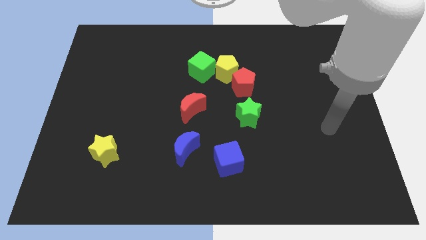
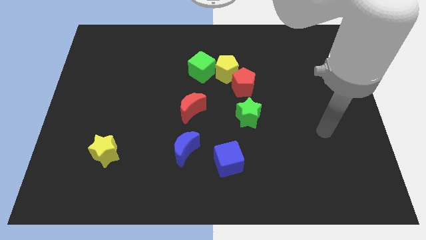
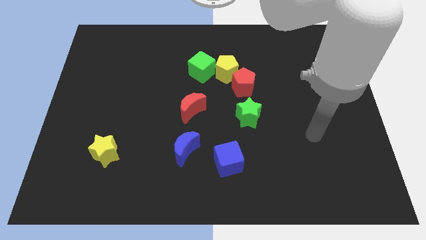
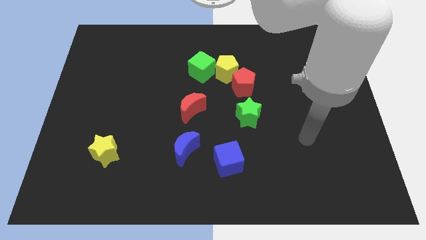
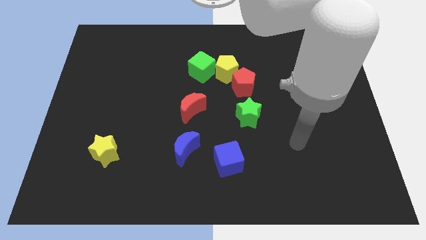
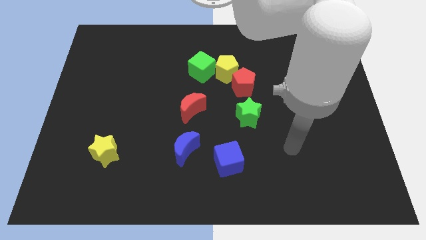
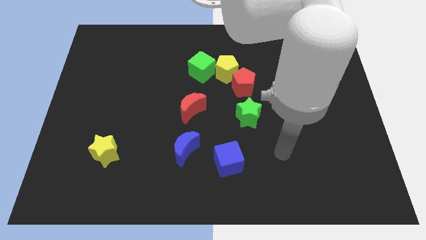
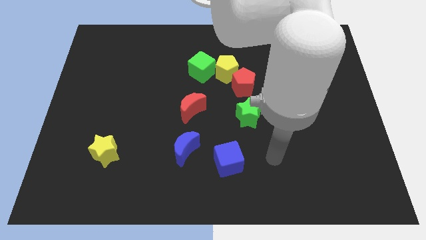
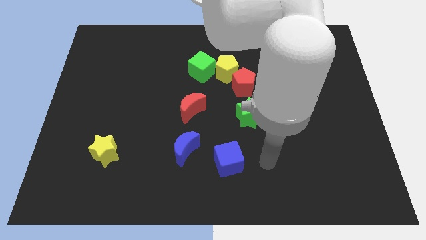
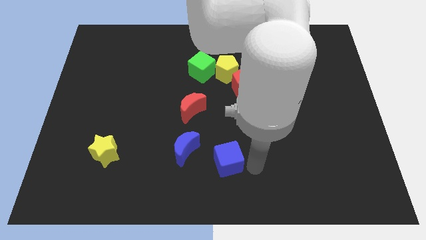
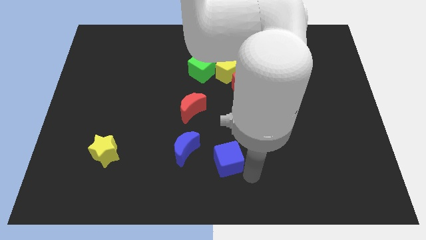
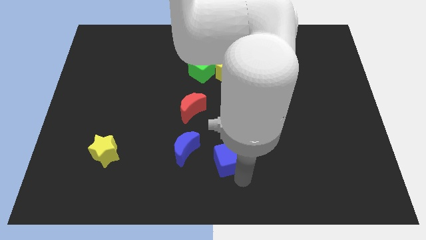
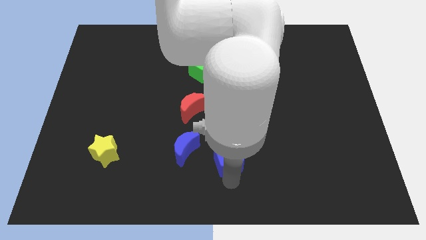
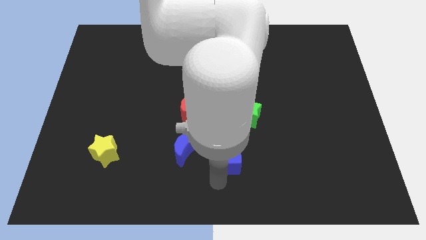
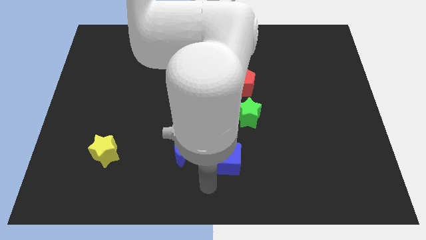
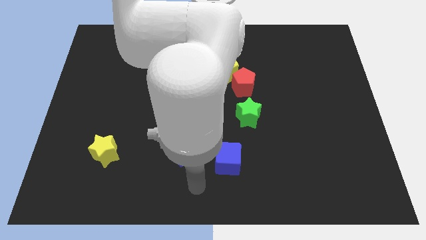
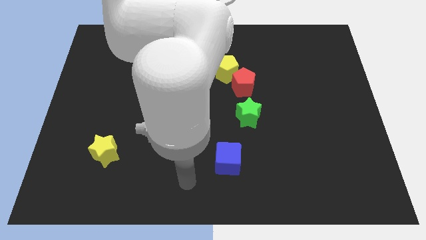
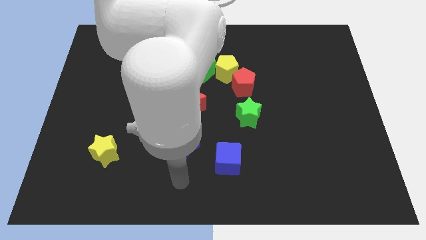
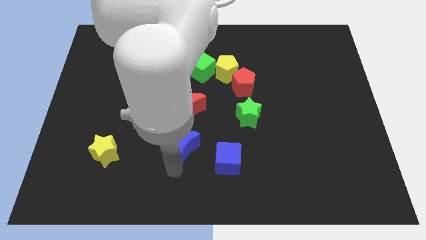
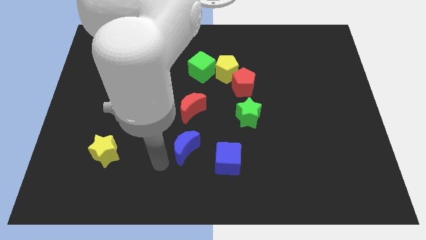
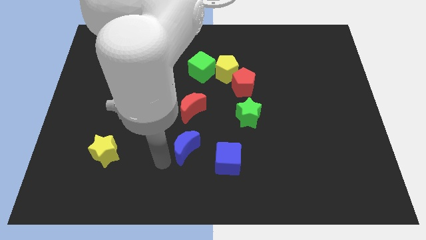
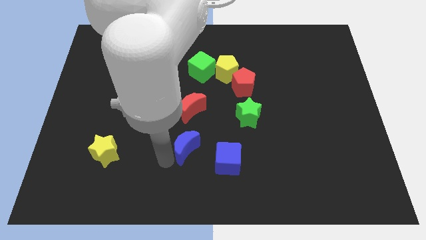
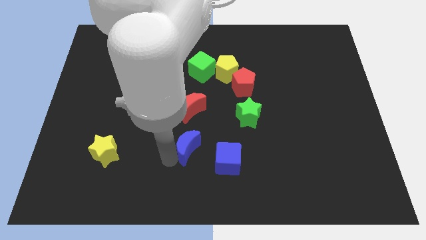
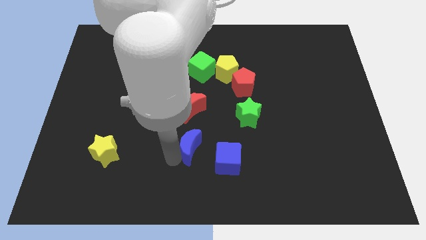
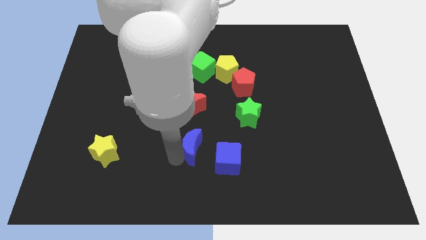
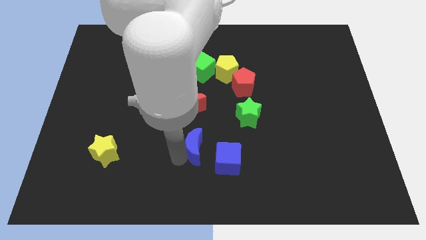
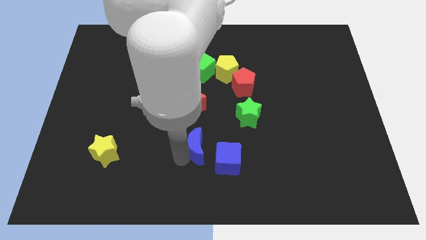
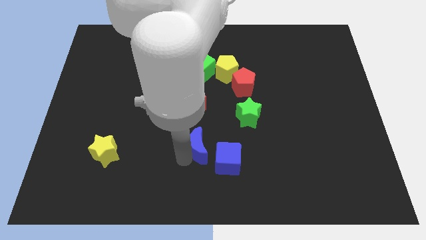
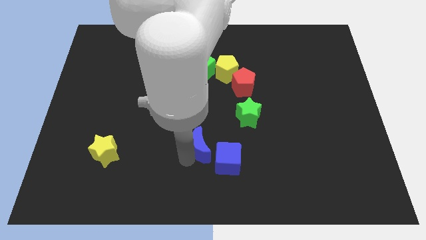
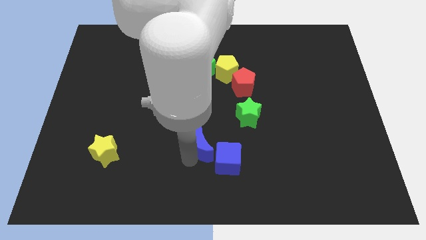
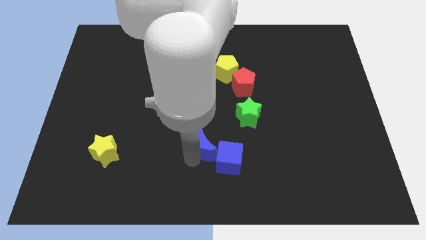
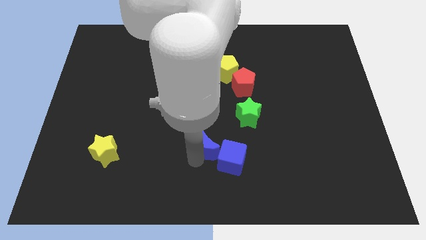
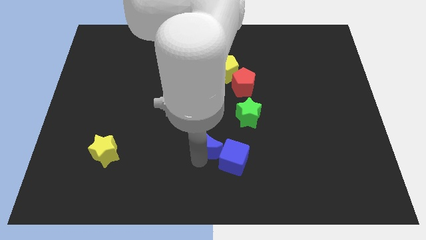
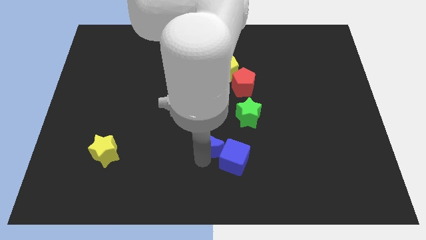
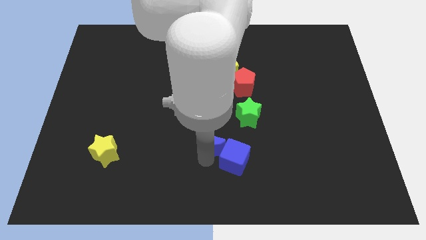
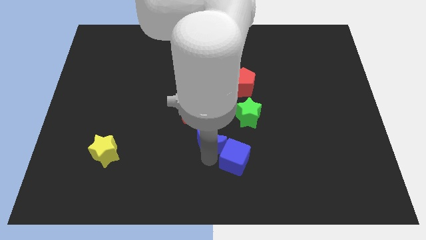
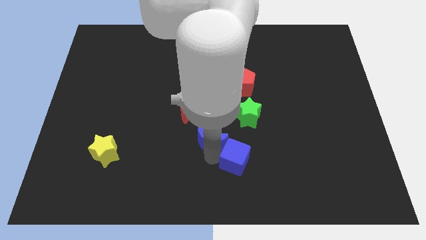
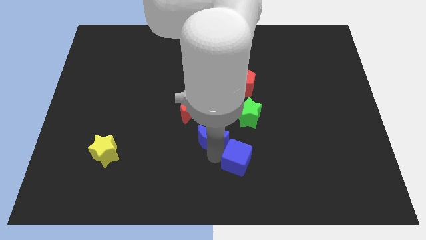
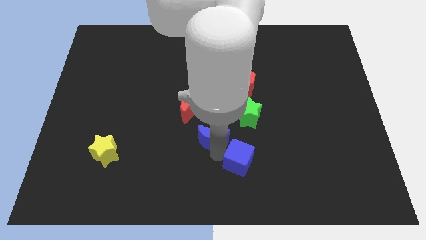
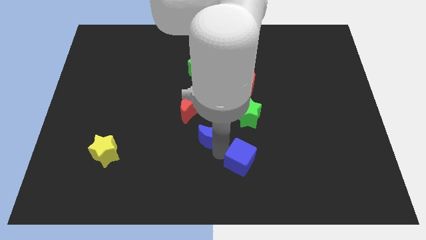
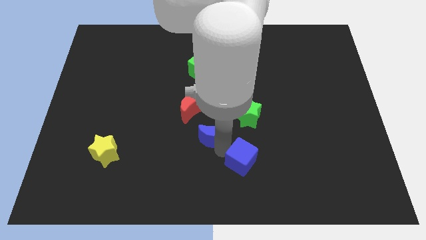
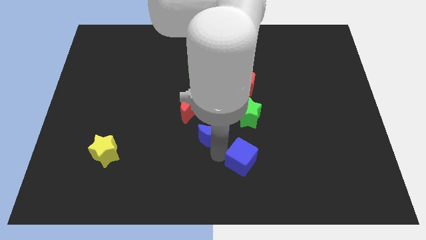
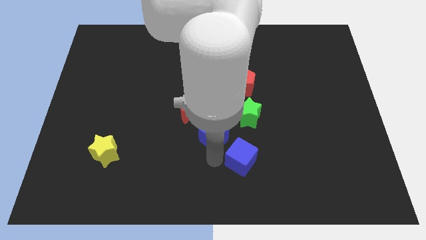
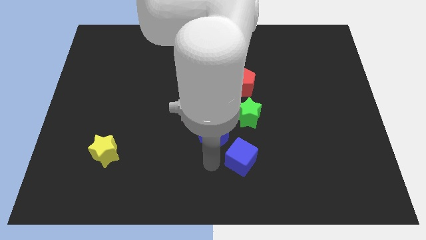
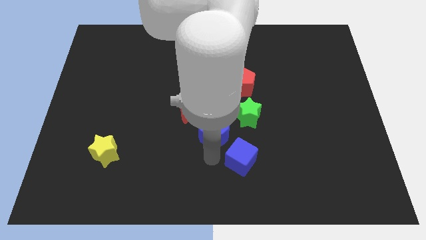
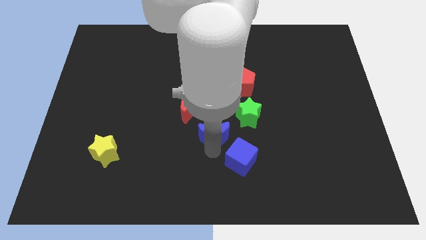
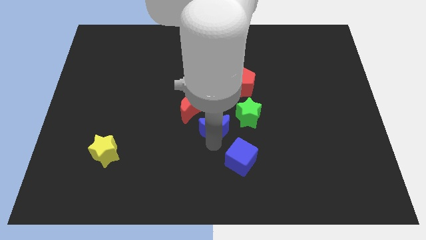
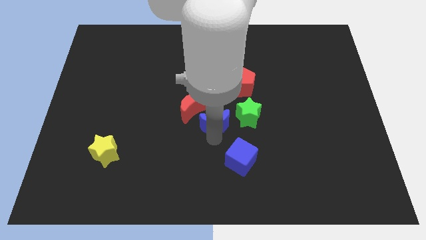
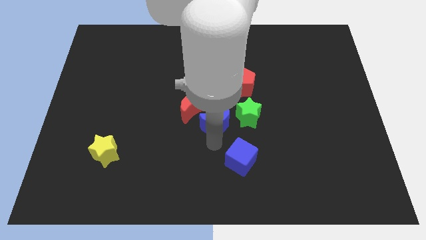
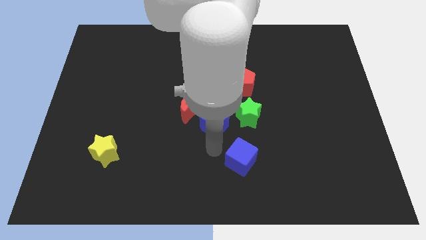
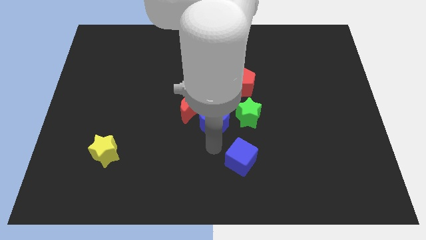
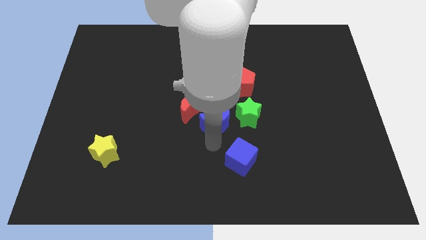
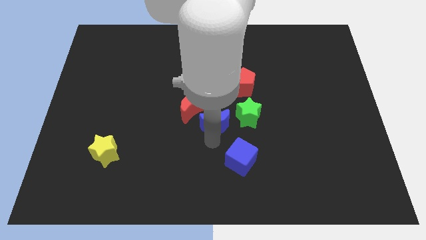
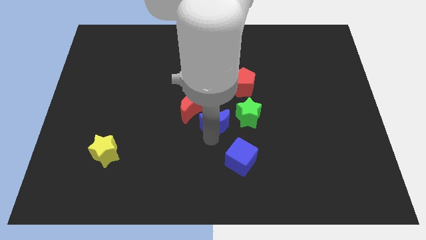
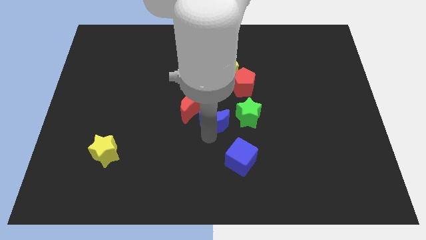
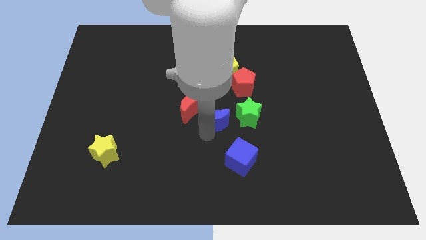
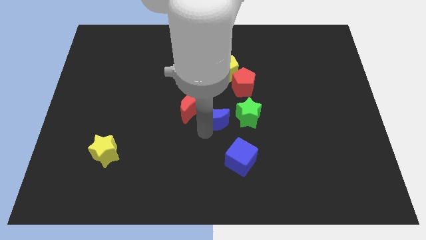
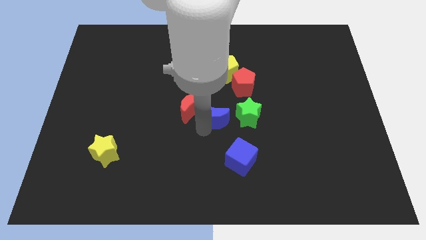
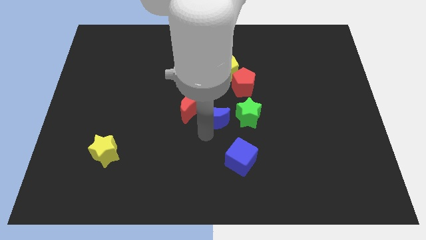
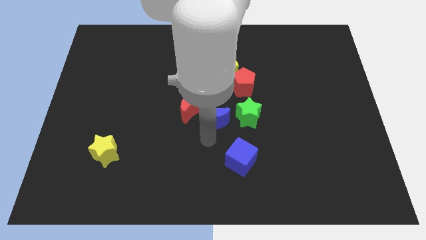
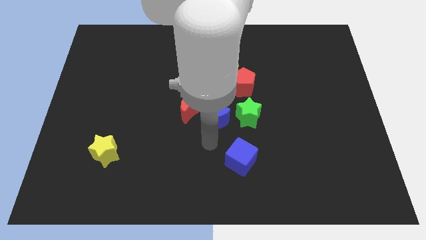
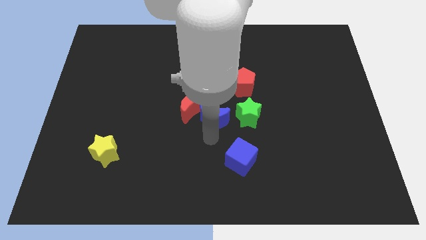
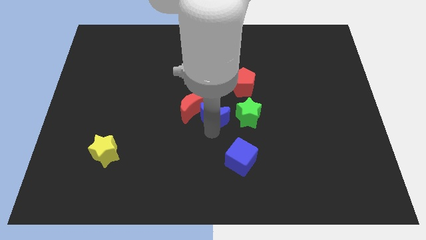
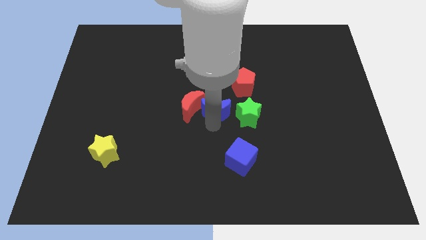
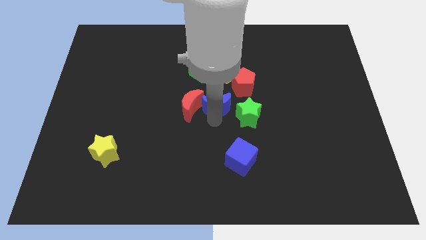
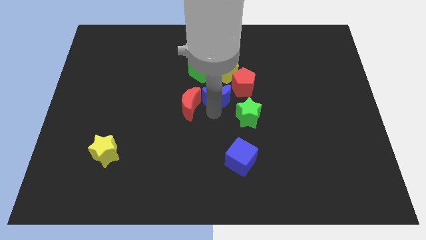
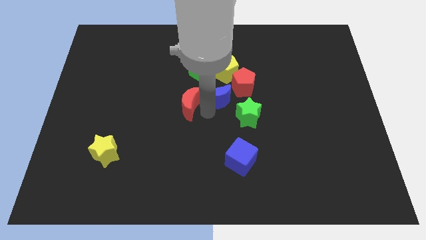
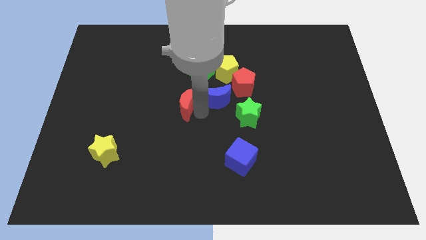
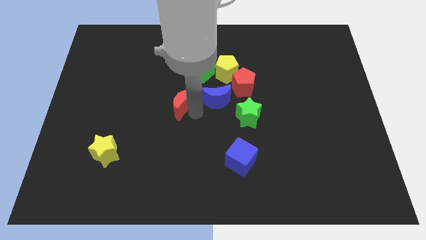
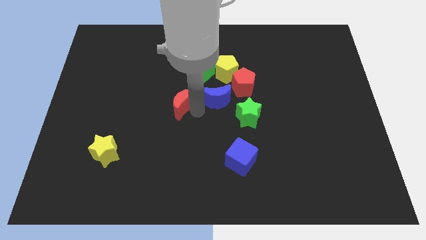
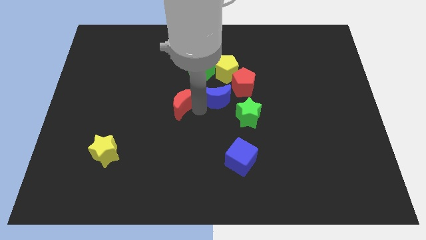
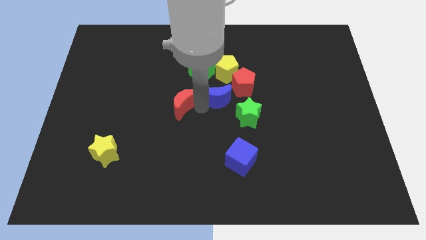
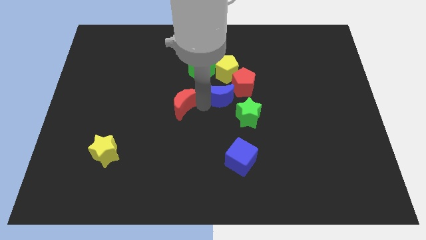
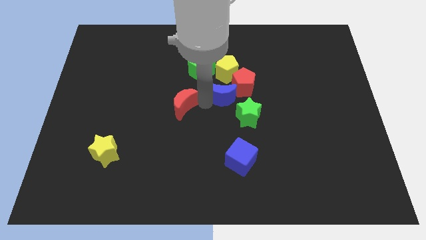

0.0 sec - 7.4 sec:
put the blue moon next to the red pentagon

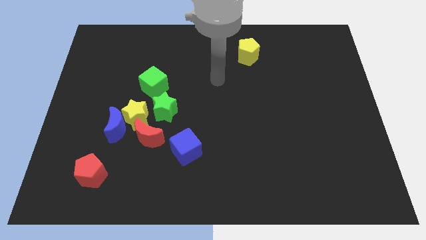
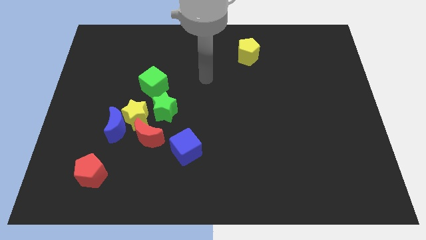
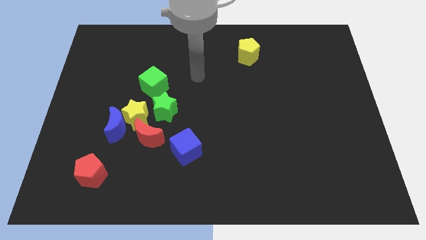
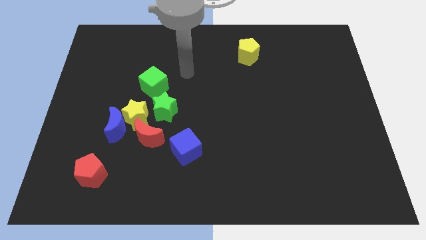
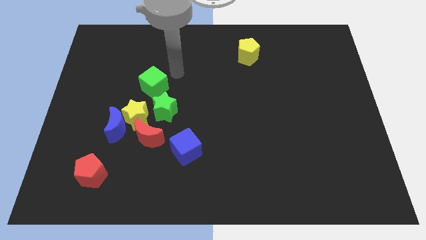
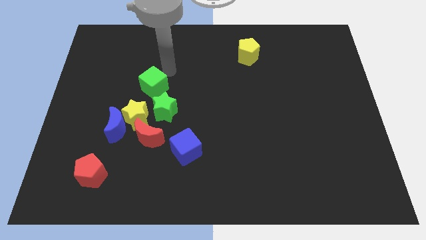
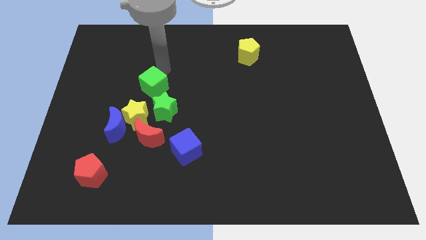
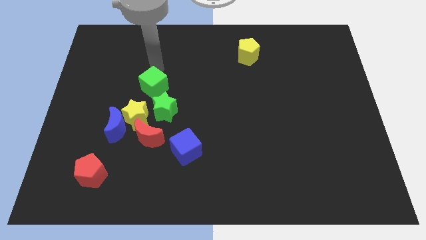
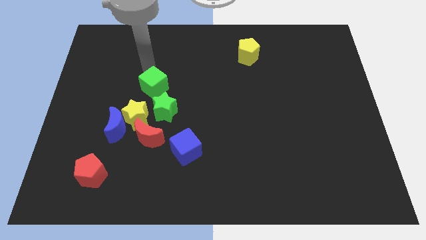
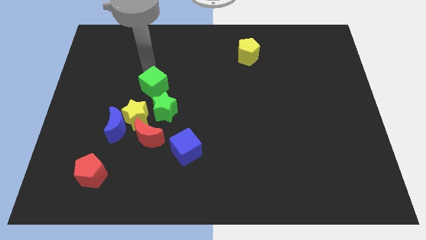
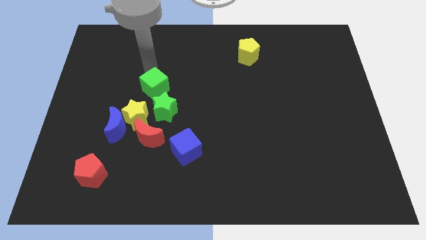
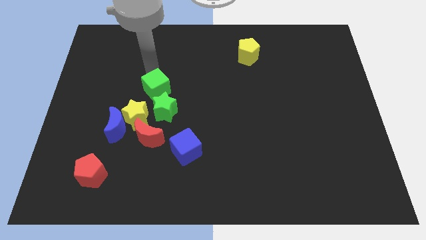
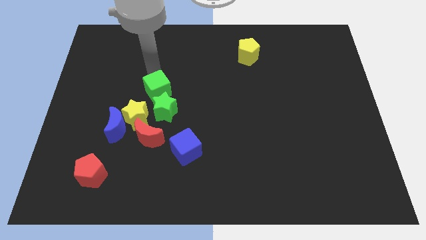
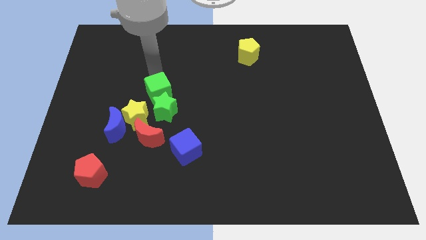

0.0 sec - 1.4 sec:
push the green cube next to the green star
